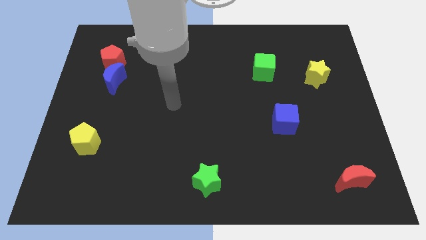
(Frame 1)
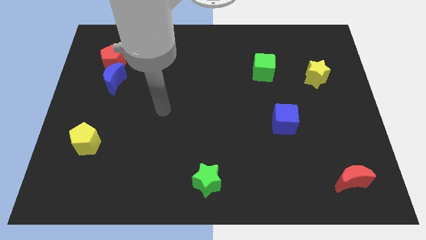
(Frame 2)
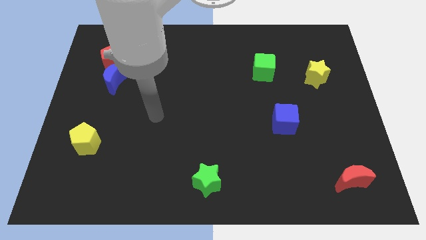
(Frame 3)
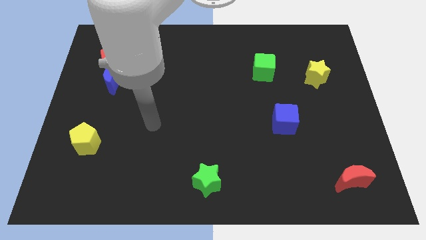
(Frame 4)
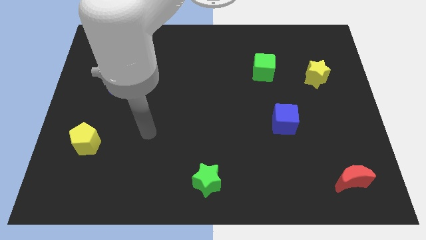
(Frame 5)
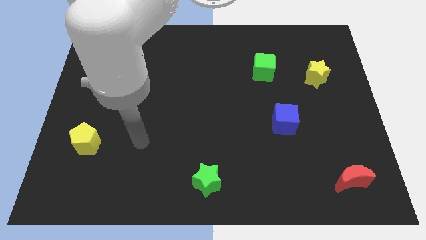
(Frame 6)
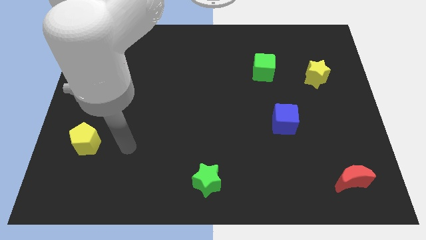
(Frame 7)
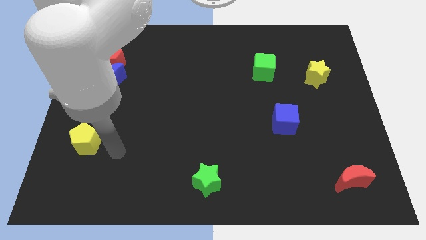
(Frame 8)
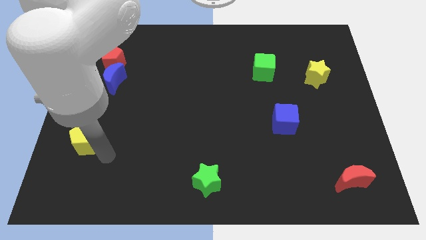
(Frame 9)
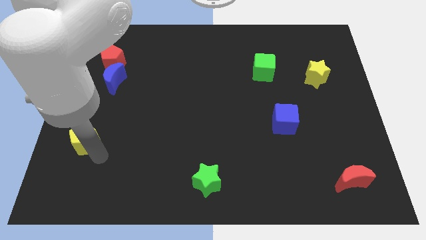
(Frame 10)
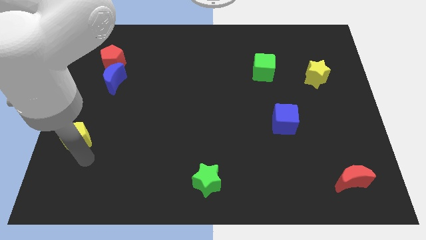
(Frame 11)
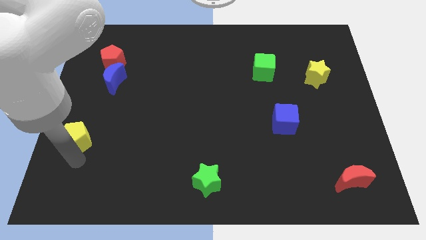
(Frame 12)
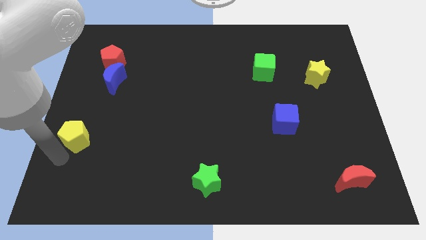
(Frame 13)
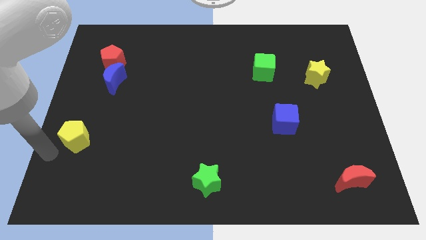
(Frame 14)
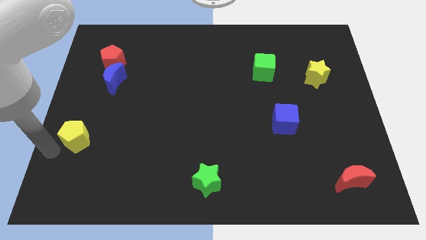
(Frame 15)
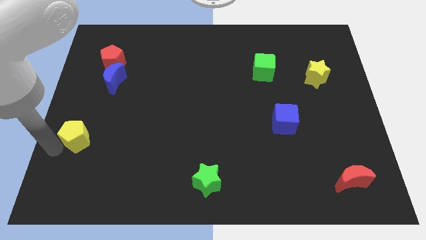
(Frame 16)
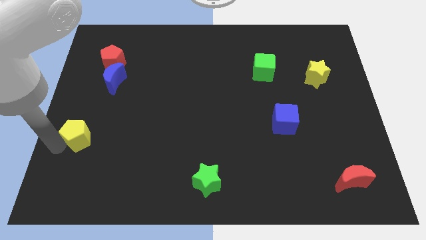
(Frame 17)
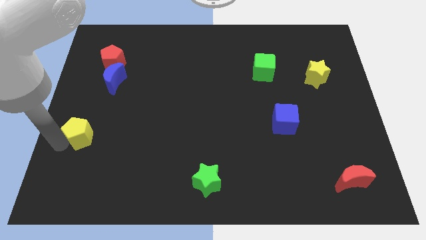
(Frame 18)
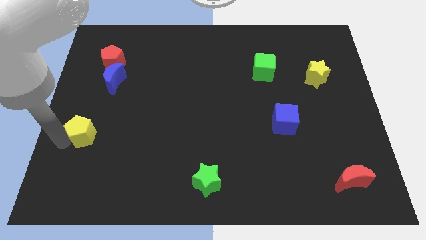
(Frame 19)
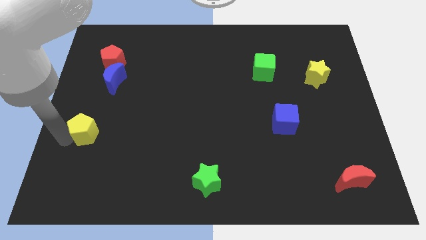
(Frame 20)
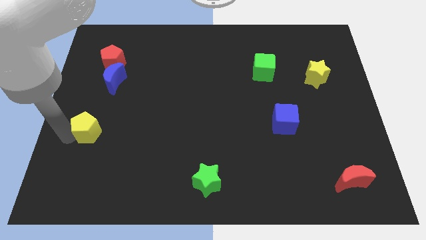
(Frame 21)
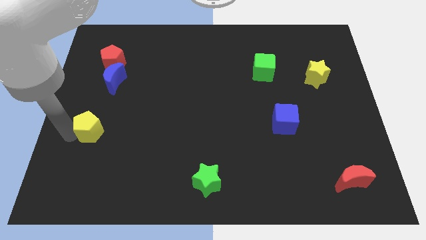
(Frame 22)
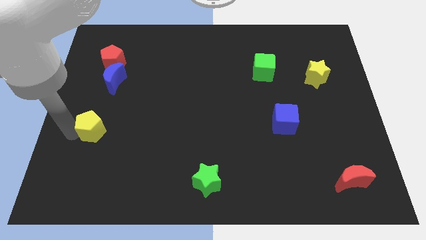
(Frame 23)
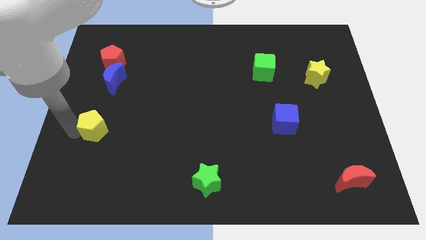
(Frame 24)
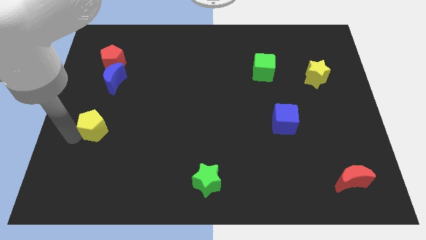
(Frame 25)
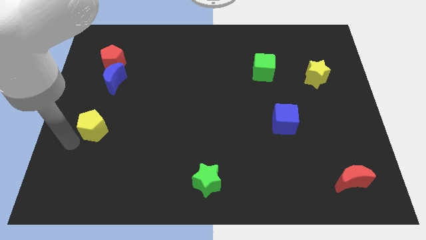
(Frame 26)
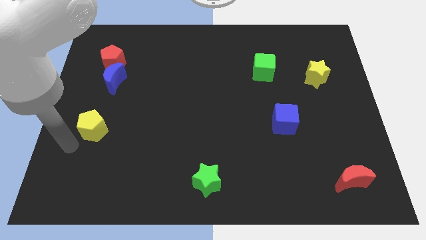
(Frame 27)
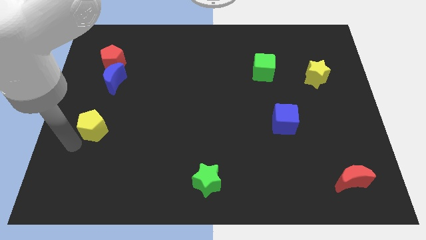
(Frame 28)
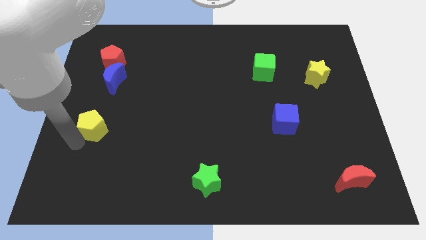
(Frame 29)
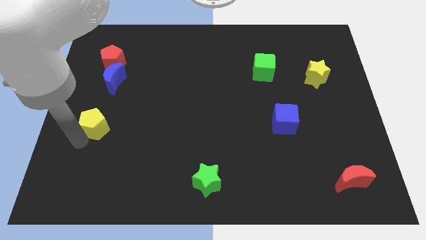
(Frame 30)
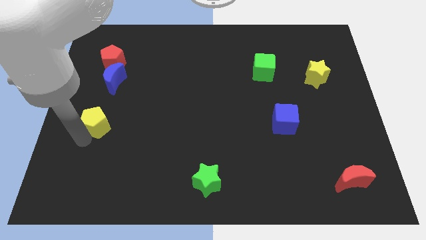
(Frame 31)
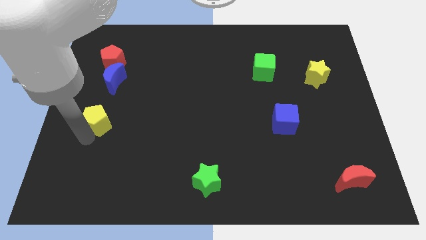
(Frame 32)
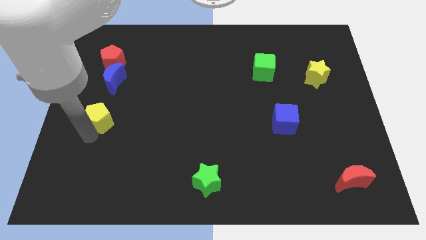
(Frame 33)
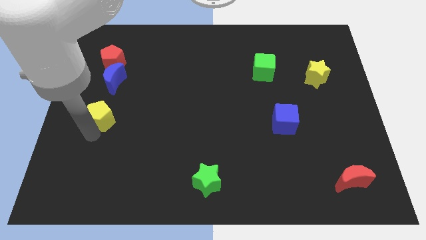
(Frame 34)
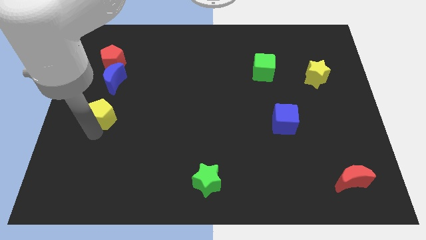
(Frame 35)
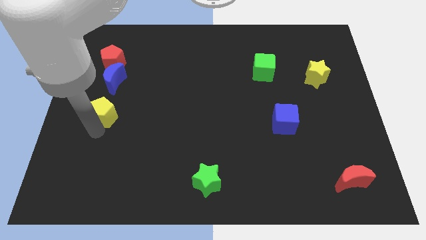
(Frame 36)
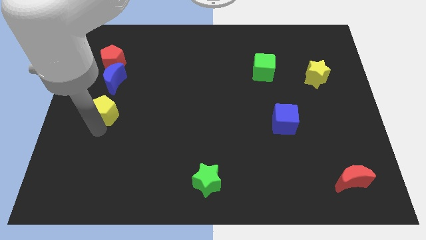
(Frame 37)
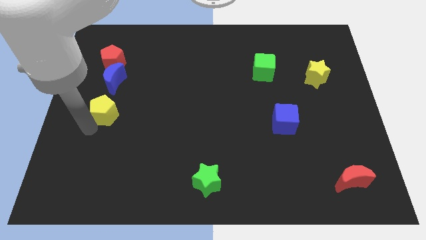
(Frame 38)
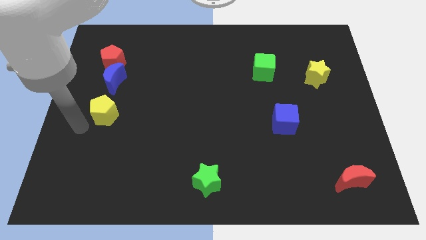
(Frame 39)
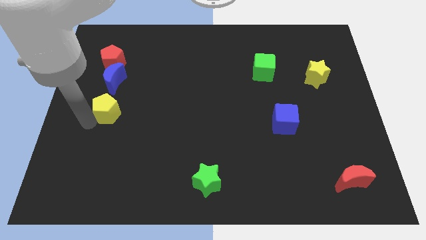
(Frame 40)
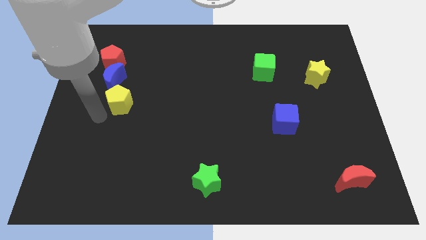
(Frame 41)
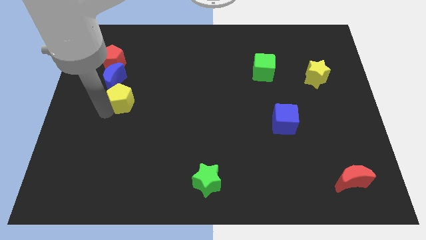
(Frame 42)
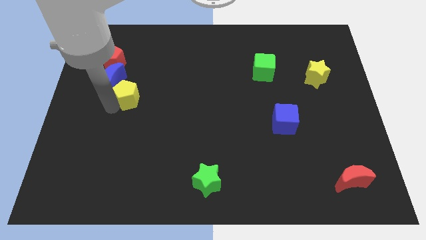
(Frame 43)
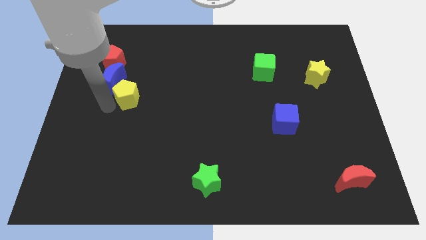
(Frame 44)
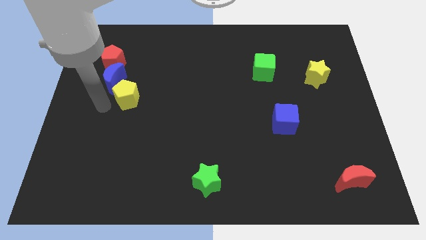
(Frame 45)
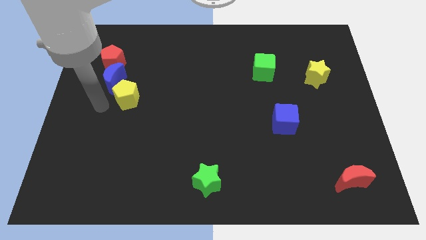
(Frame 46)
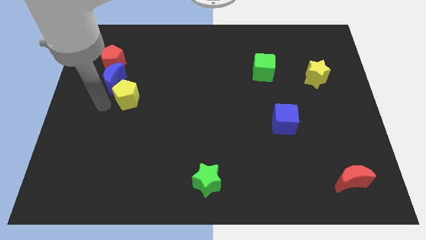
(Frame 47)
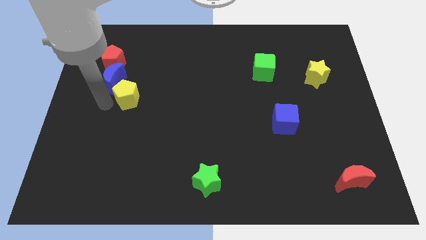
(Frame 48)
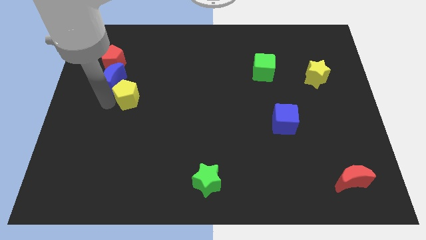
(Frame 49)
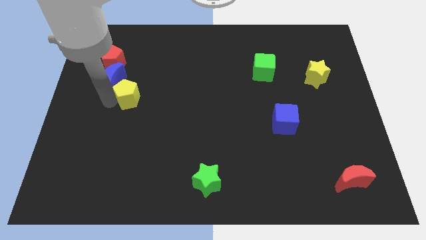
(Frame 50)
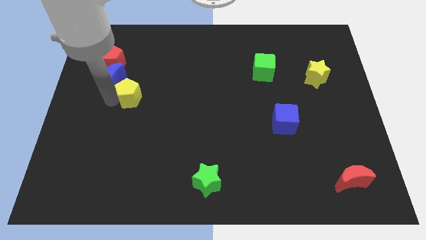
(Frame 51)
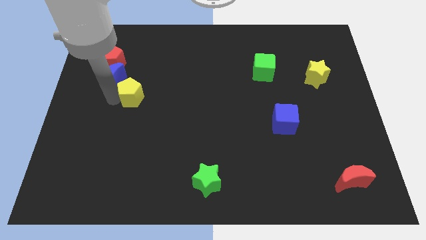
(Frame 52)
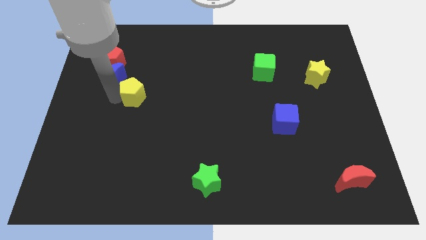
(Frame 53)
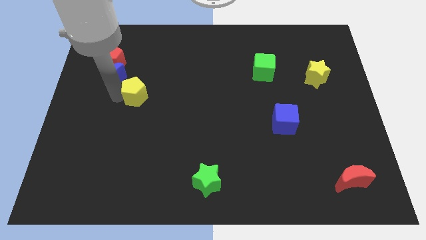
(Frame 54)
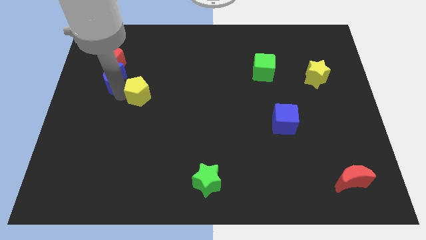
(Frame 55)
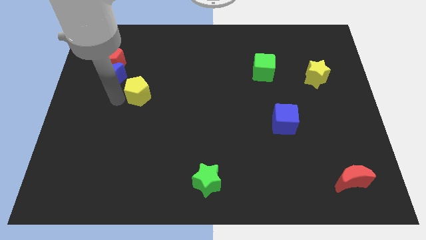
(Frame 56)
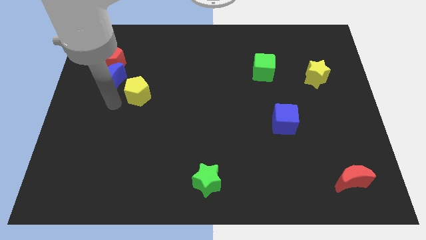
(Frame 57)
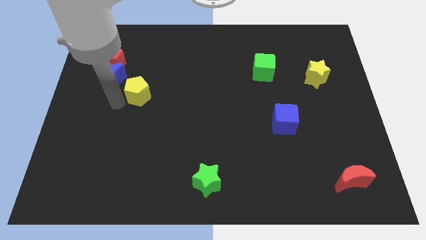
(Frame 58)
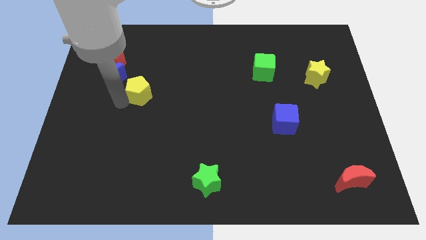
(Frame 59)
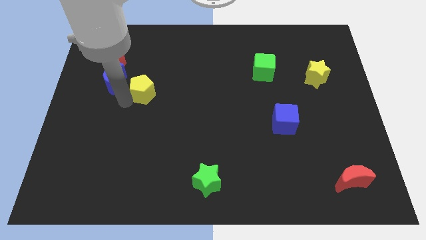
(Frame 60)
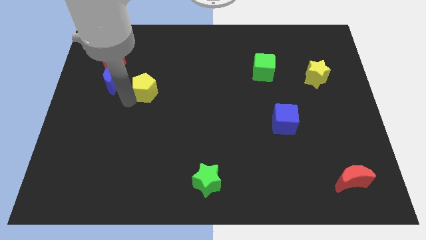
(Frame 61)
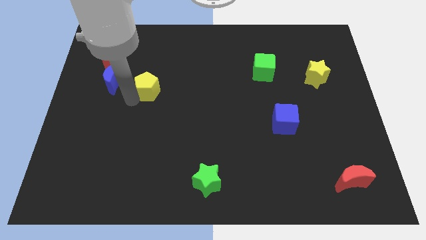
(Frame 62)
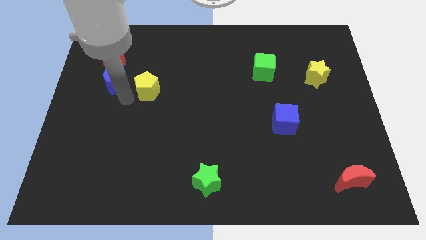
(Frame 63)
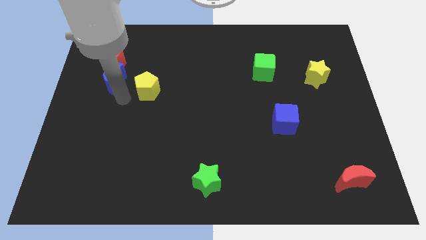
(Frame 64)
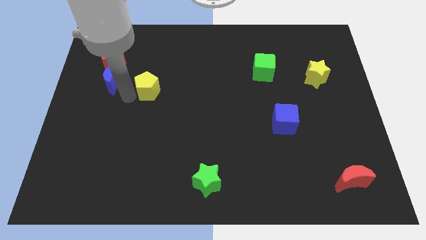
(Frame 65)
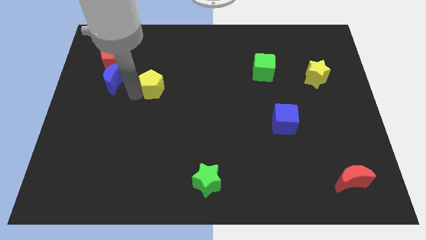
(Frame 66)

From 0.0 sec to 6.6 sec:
move the yellow pentagon diagonally up and right

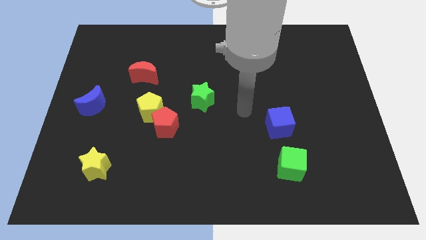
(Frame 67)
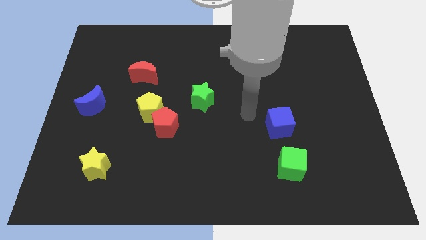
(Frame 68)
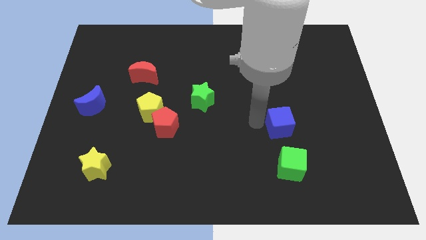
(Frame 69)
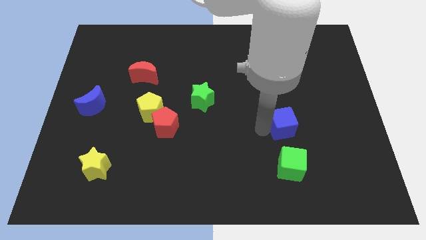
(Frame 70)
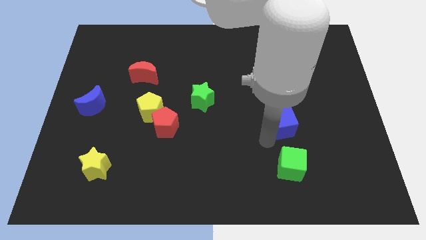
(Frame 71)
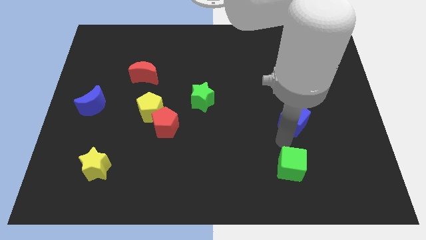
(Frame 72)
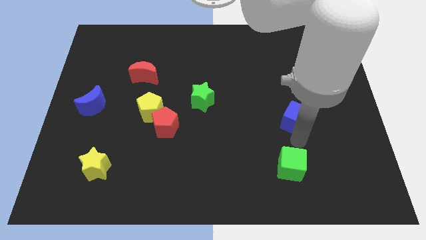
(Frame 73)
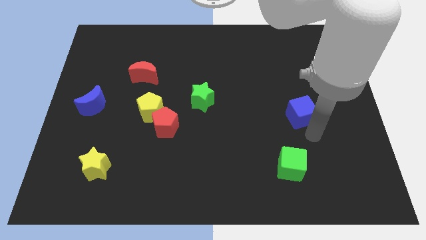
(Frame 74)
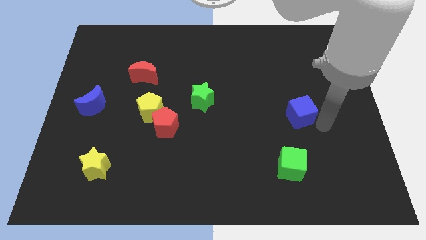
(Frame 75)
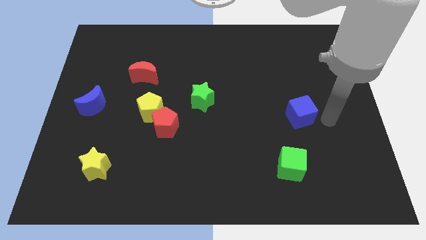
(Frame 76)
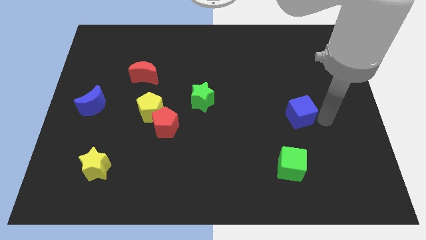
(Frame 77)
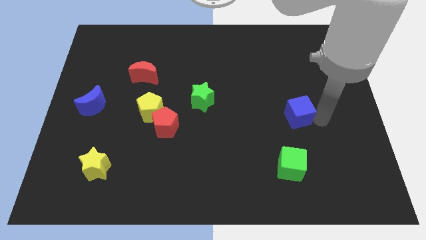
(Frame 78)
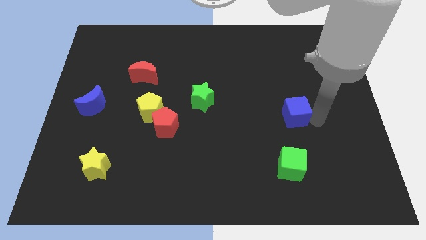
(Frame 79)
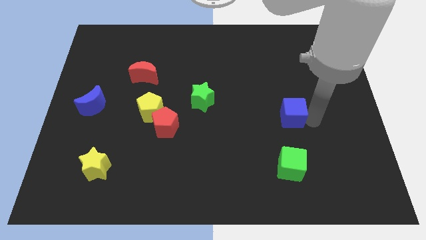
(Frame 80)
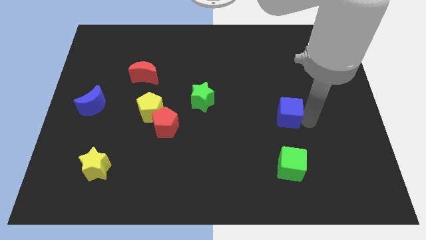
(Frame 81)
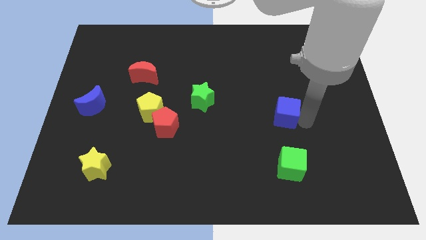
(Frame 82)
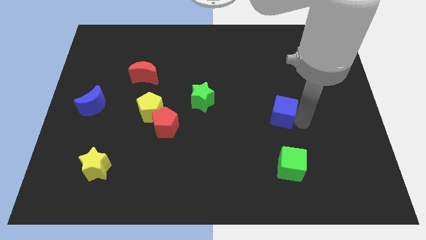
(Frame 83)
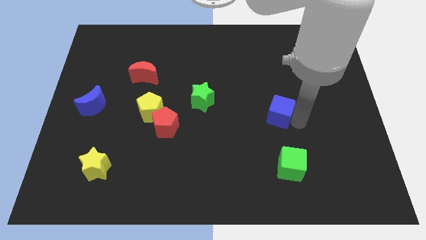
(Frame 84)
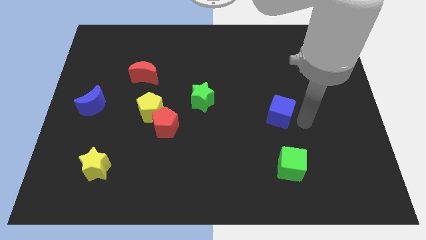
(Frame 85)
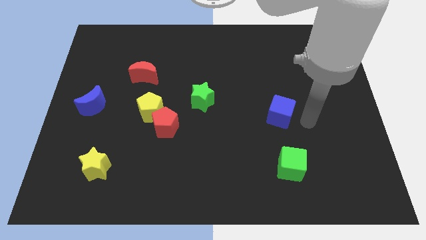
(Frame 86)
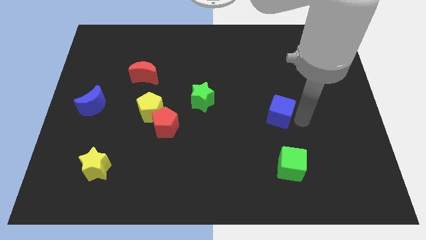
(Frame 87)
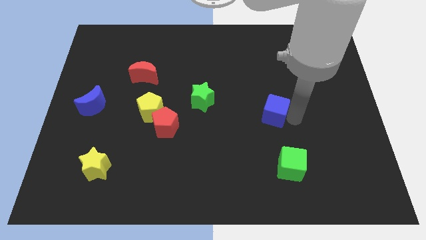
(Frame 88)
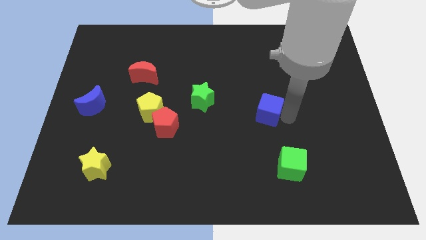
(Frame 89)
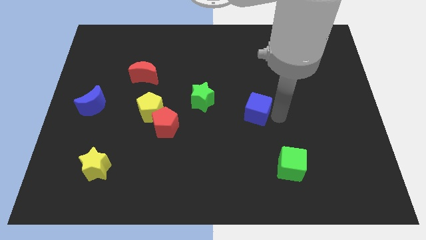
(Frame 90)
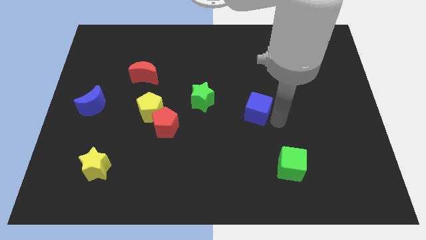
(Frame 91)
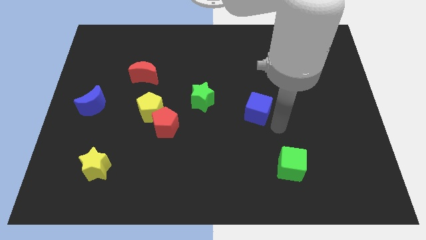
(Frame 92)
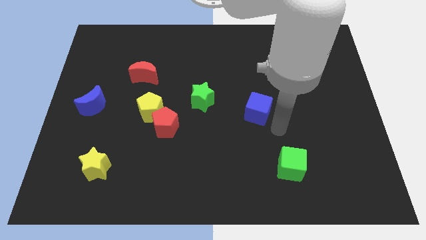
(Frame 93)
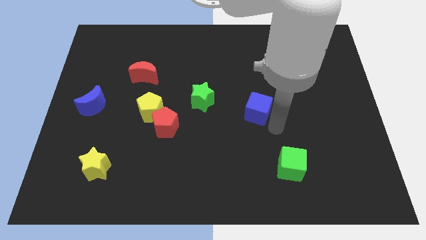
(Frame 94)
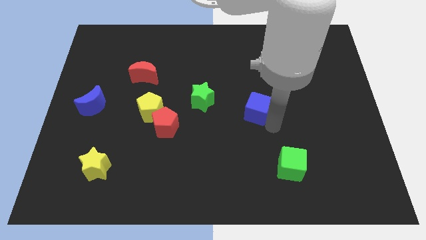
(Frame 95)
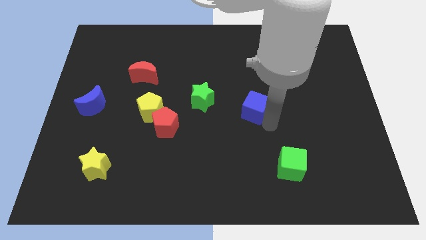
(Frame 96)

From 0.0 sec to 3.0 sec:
slightly slide the blue cube up and left diagonally
